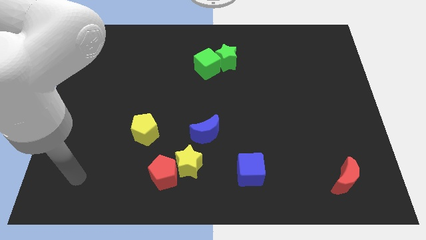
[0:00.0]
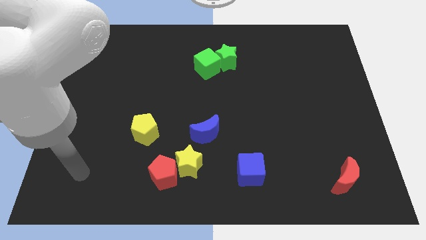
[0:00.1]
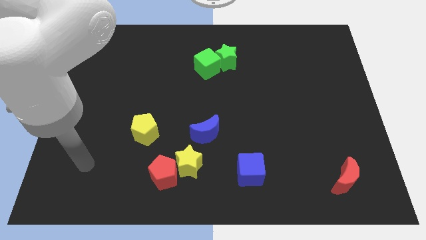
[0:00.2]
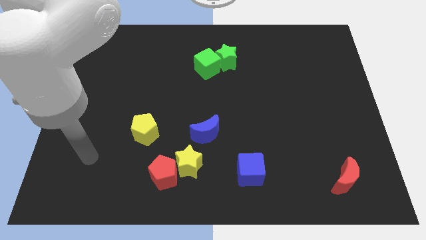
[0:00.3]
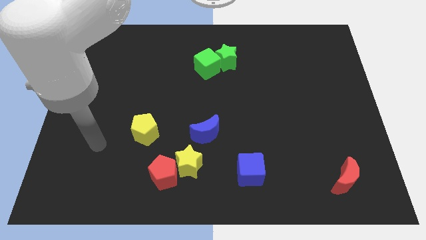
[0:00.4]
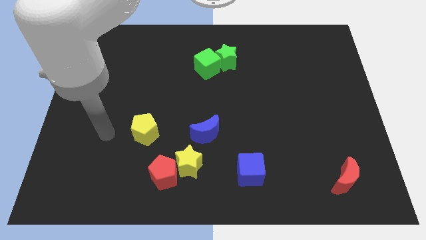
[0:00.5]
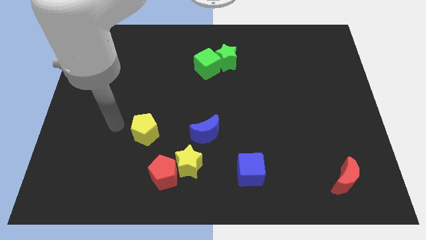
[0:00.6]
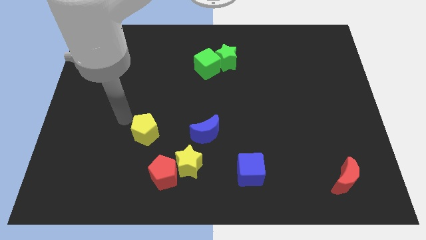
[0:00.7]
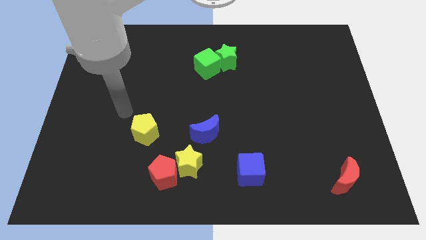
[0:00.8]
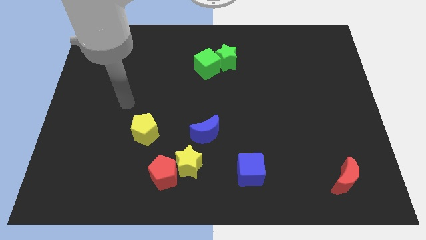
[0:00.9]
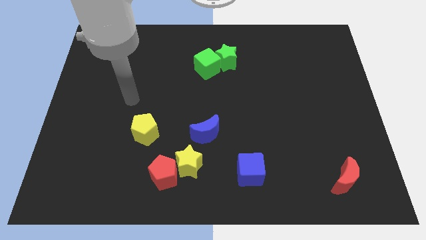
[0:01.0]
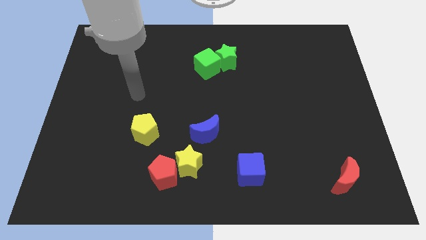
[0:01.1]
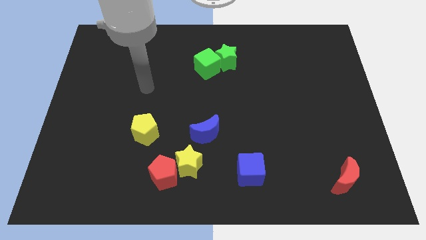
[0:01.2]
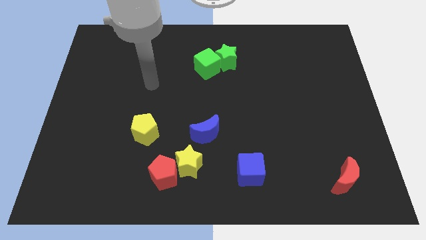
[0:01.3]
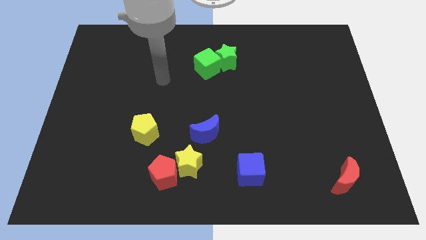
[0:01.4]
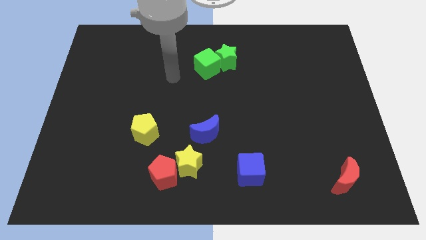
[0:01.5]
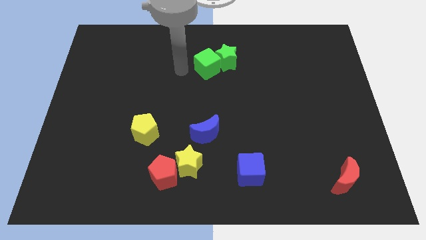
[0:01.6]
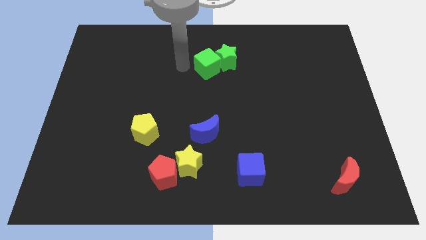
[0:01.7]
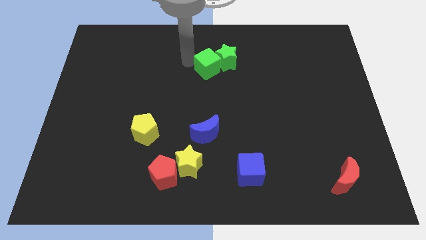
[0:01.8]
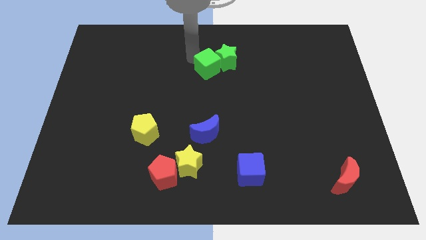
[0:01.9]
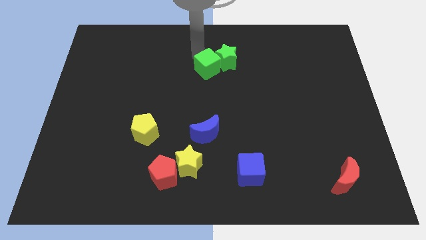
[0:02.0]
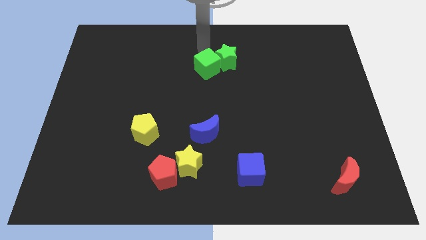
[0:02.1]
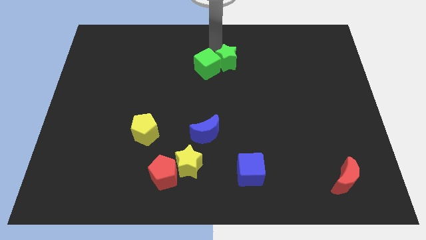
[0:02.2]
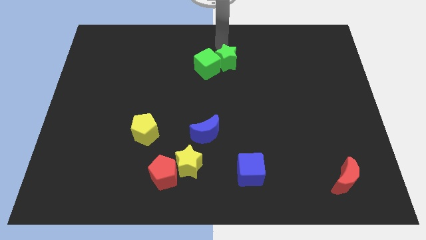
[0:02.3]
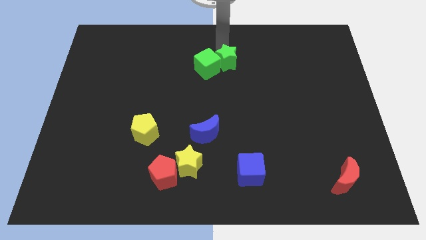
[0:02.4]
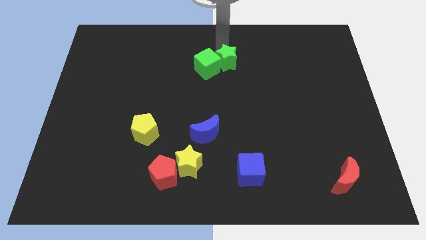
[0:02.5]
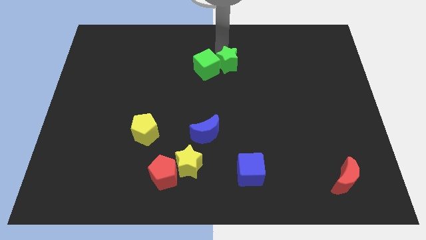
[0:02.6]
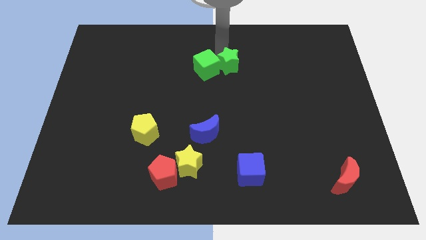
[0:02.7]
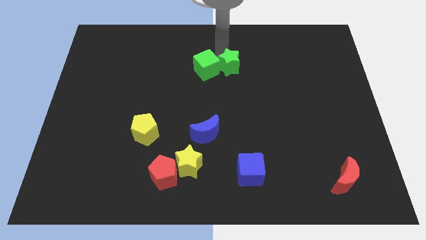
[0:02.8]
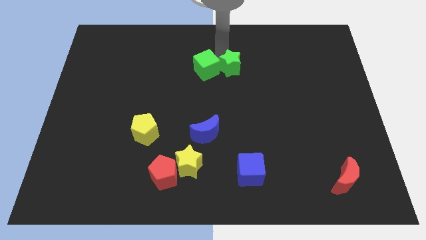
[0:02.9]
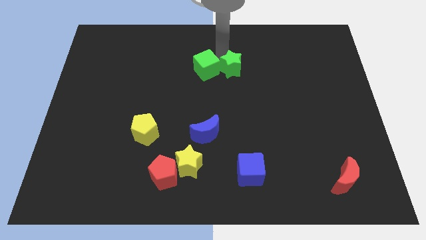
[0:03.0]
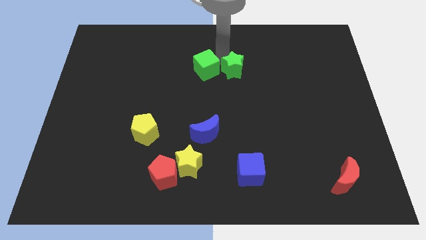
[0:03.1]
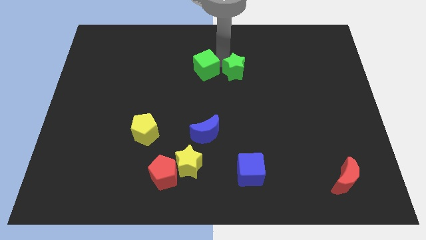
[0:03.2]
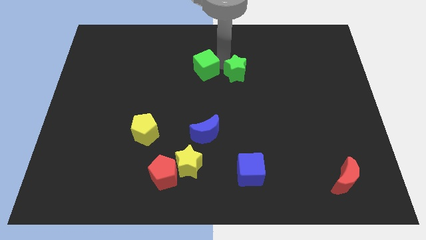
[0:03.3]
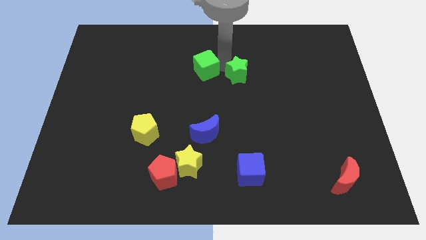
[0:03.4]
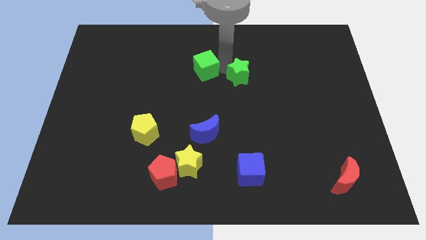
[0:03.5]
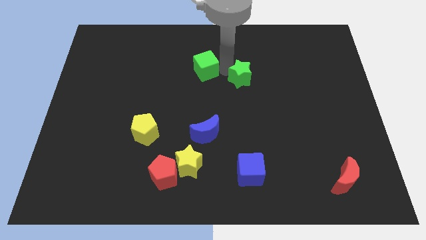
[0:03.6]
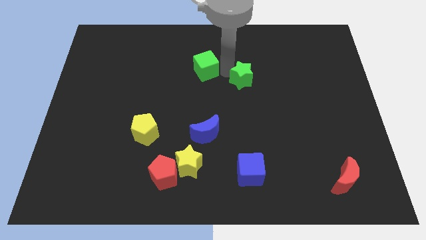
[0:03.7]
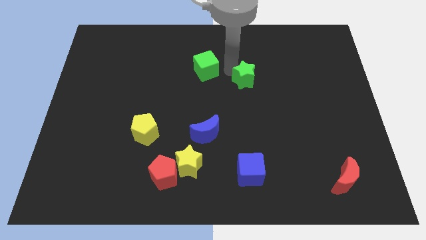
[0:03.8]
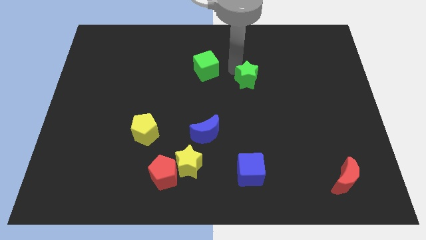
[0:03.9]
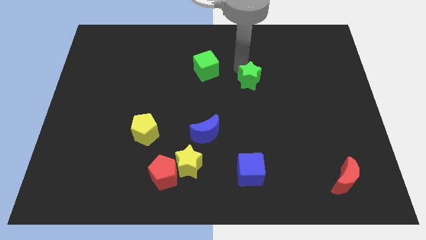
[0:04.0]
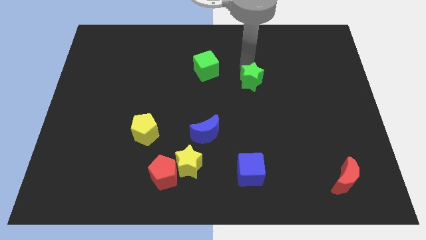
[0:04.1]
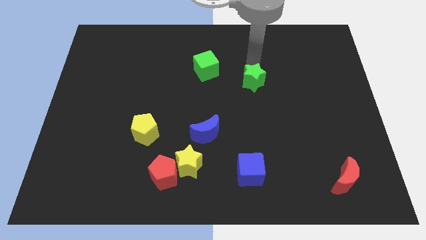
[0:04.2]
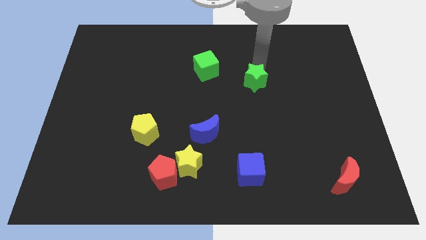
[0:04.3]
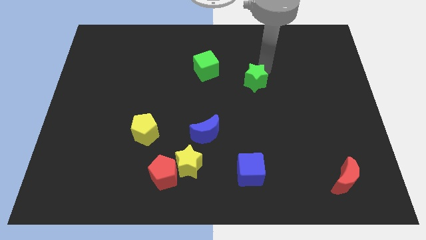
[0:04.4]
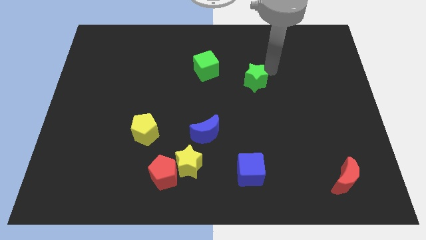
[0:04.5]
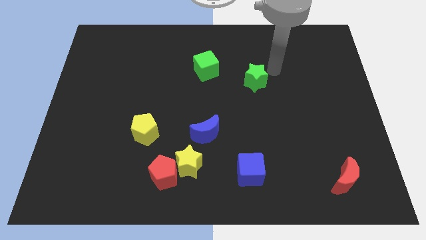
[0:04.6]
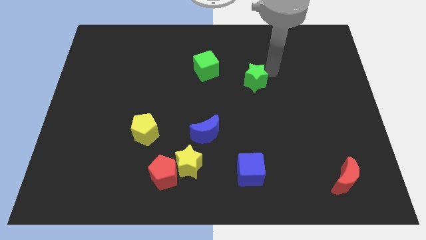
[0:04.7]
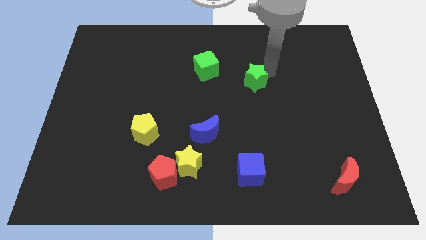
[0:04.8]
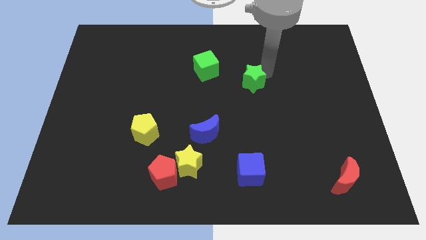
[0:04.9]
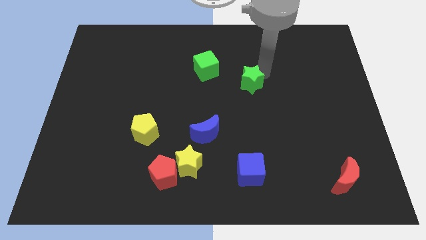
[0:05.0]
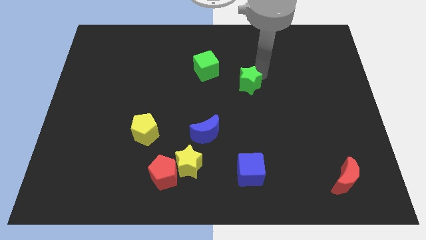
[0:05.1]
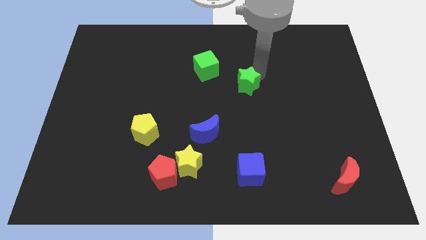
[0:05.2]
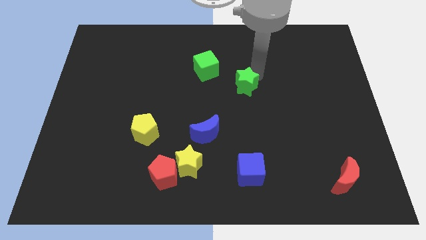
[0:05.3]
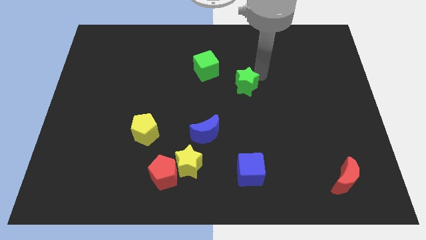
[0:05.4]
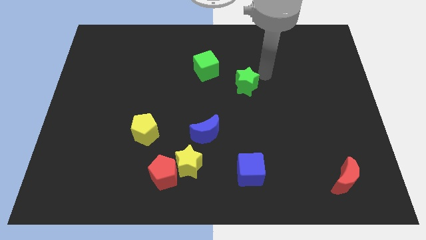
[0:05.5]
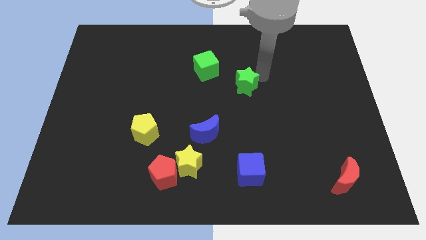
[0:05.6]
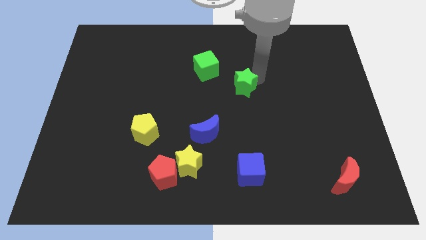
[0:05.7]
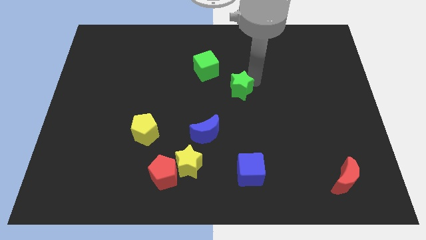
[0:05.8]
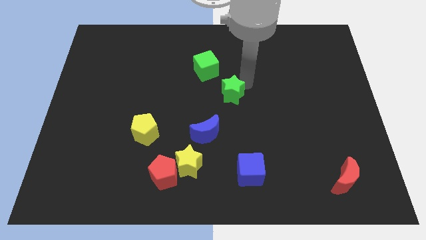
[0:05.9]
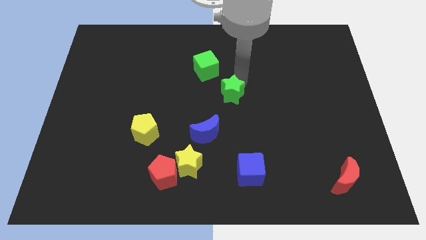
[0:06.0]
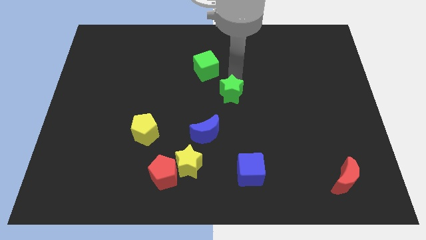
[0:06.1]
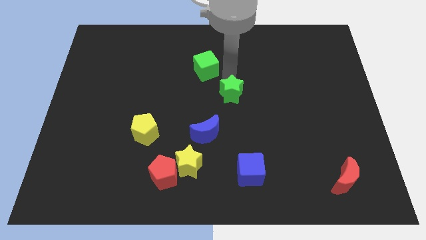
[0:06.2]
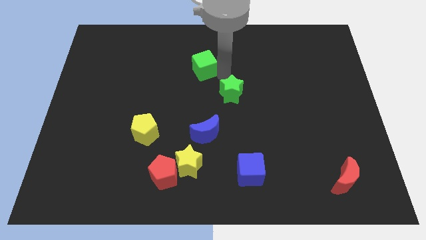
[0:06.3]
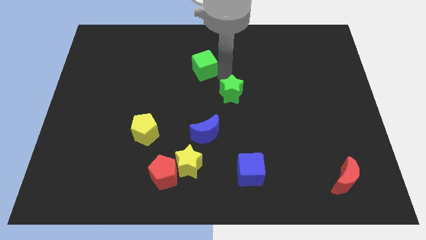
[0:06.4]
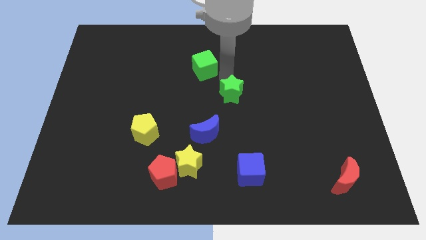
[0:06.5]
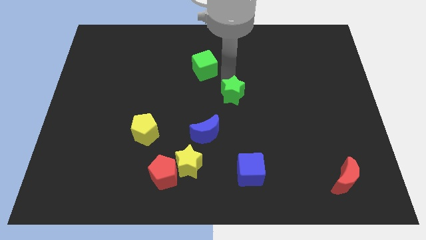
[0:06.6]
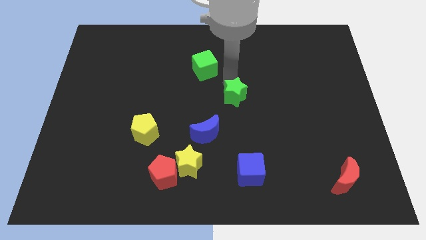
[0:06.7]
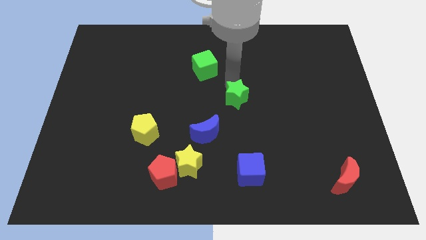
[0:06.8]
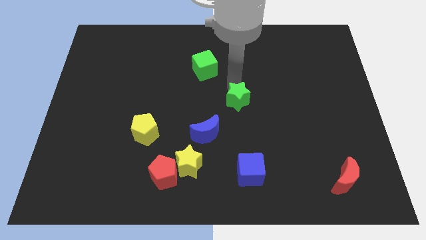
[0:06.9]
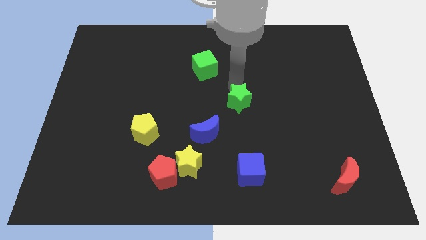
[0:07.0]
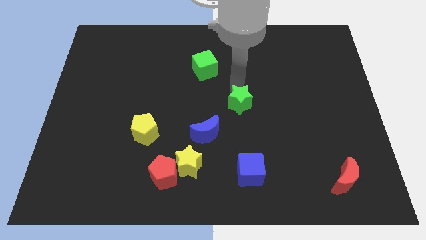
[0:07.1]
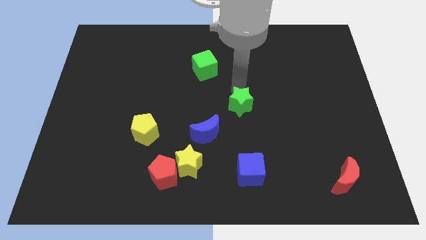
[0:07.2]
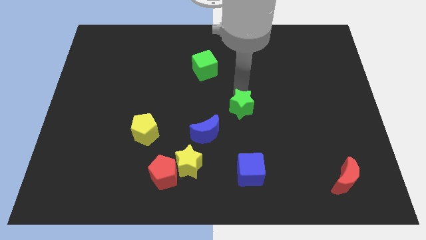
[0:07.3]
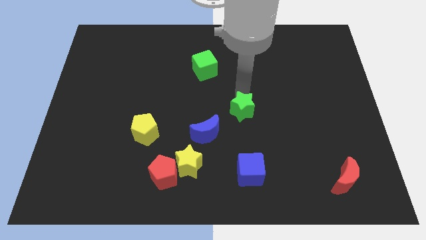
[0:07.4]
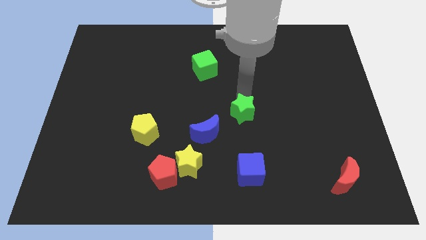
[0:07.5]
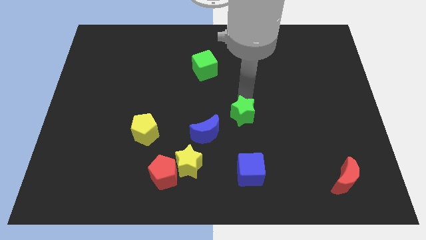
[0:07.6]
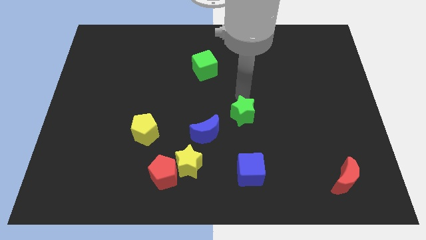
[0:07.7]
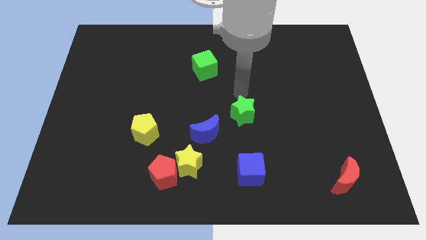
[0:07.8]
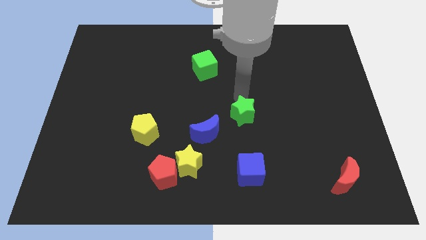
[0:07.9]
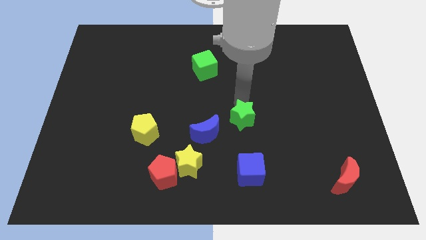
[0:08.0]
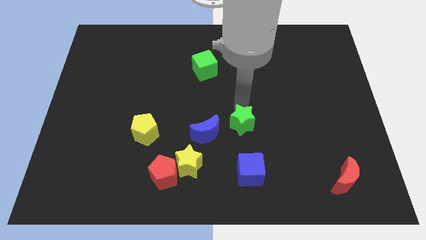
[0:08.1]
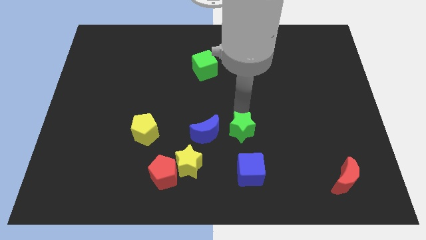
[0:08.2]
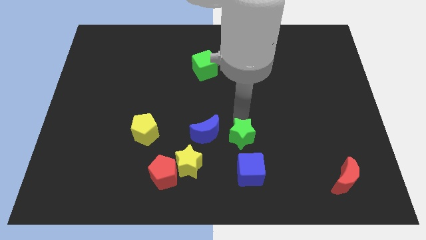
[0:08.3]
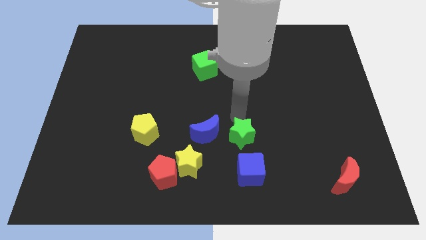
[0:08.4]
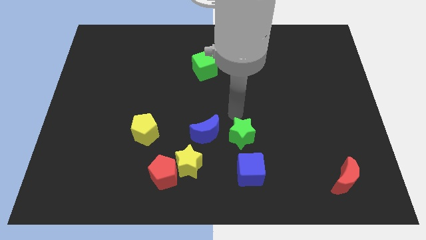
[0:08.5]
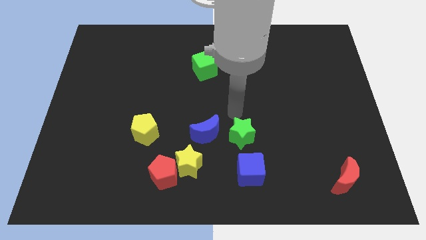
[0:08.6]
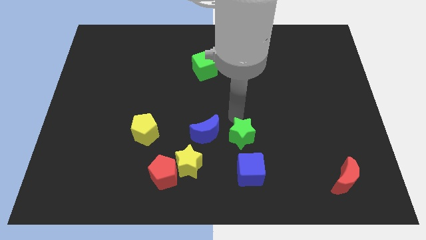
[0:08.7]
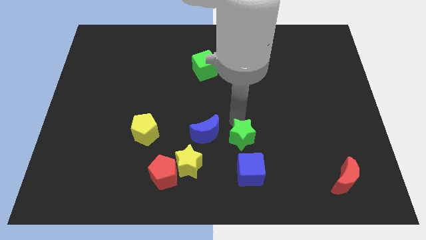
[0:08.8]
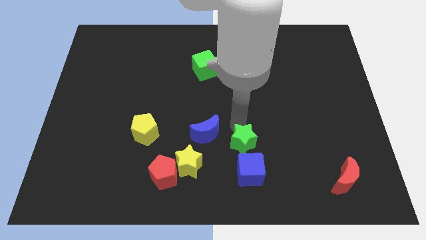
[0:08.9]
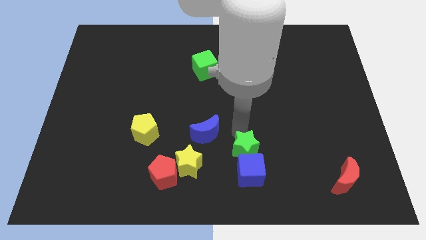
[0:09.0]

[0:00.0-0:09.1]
put the green star next to the blue cube
